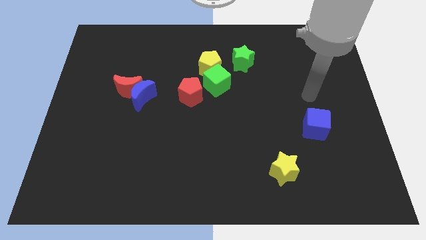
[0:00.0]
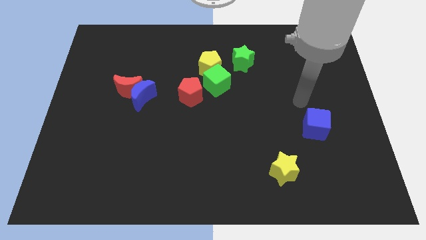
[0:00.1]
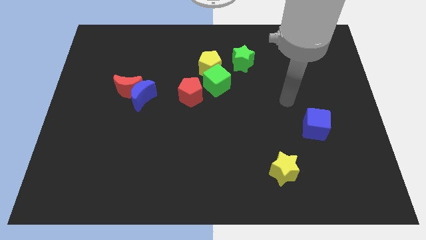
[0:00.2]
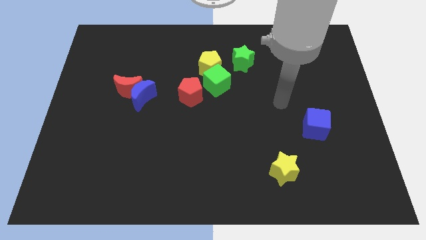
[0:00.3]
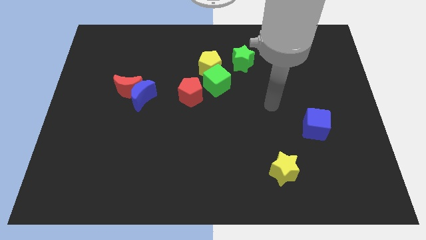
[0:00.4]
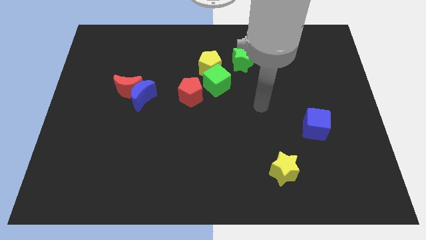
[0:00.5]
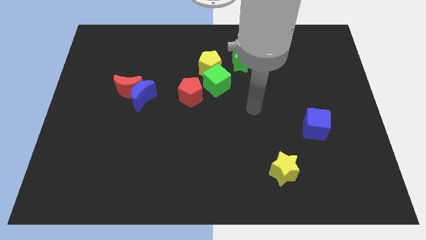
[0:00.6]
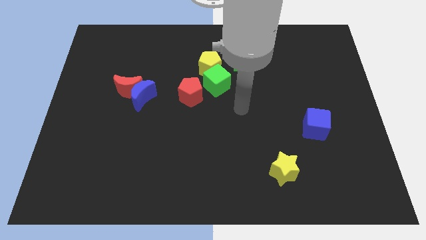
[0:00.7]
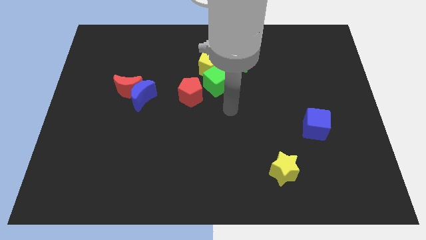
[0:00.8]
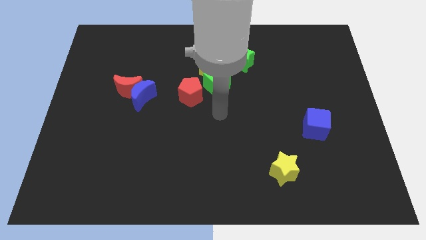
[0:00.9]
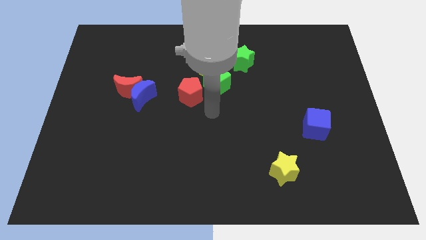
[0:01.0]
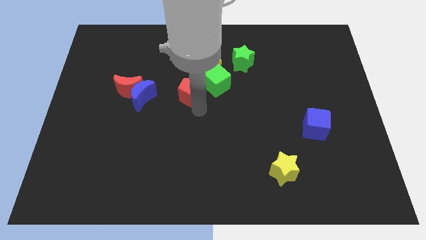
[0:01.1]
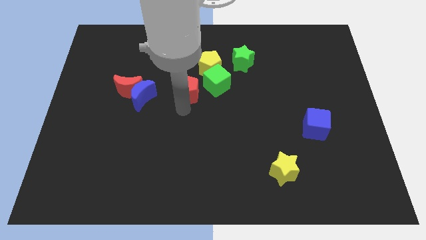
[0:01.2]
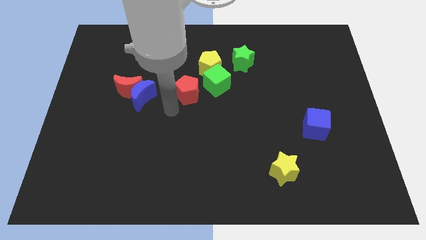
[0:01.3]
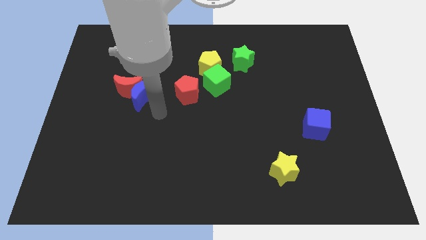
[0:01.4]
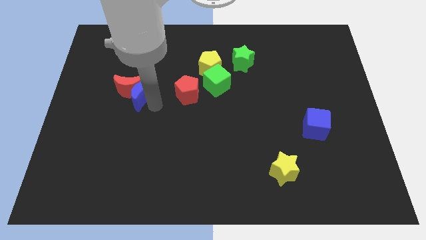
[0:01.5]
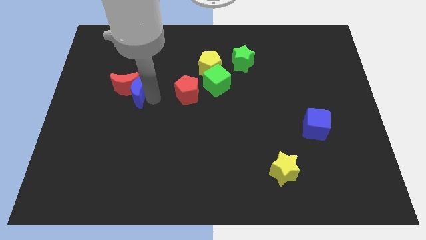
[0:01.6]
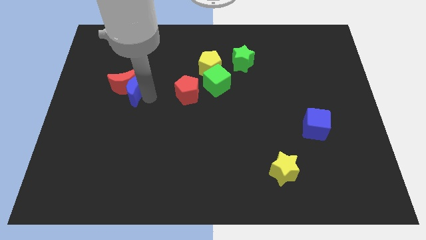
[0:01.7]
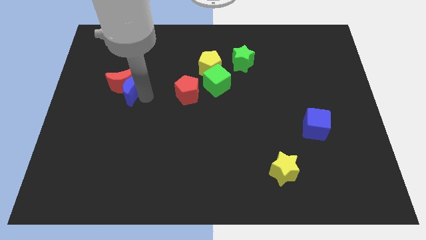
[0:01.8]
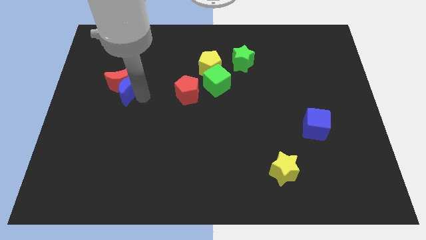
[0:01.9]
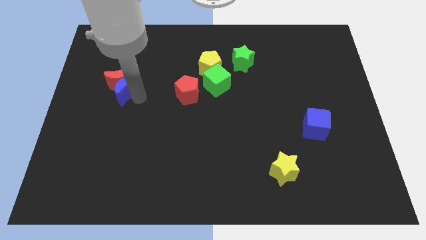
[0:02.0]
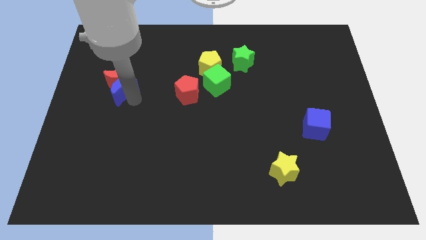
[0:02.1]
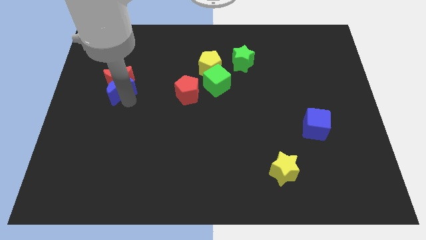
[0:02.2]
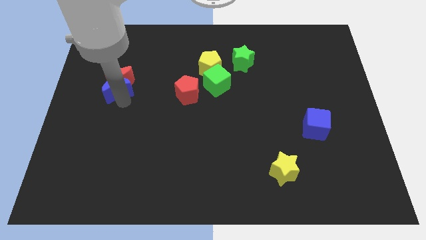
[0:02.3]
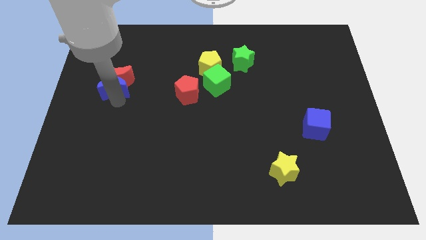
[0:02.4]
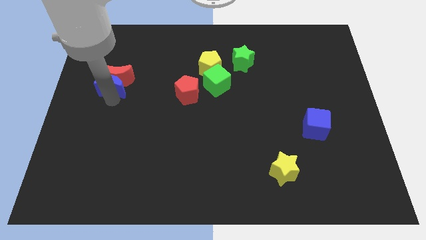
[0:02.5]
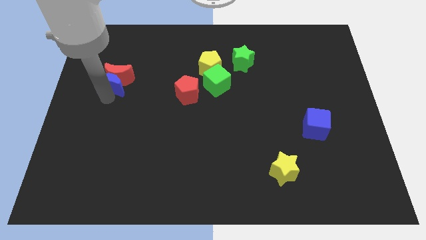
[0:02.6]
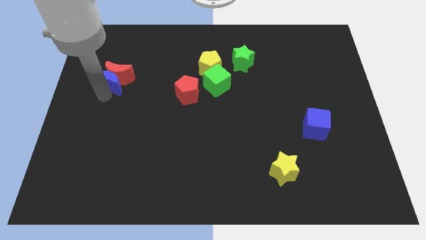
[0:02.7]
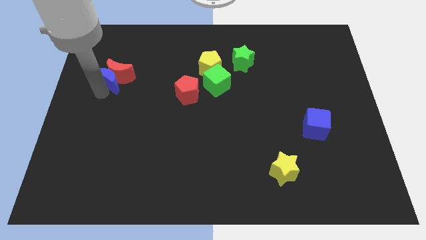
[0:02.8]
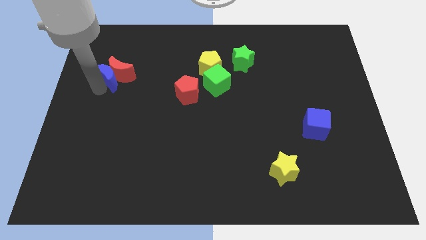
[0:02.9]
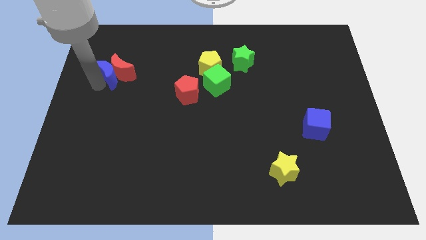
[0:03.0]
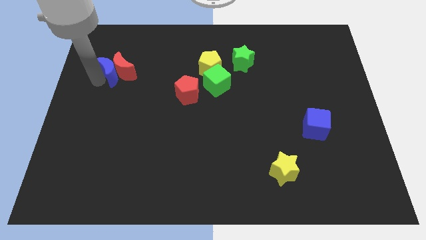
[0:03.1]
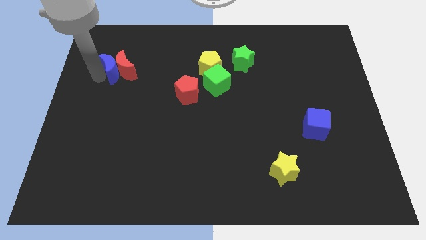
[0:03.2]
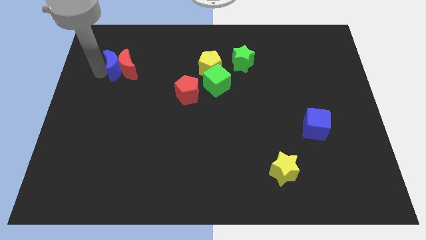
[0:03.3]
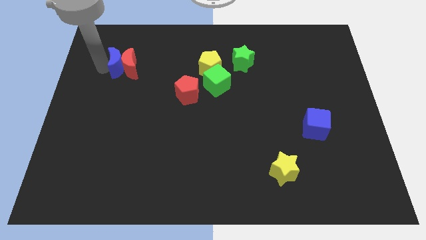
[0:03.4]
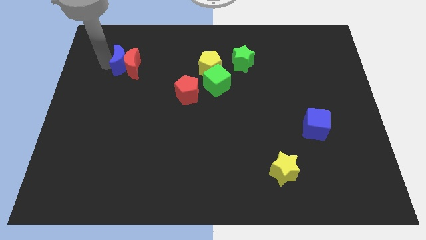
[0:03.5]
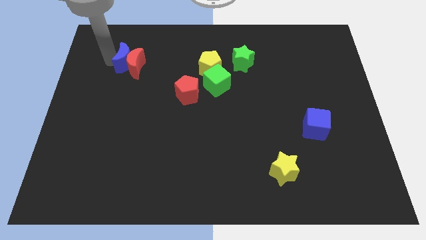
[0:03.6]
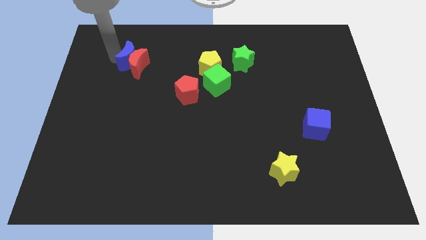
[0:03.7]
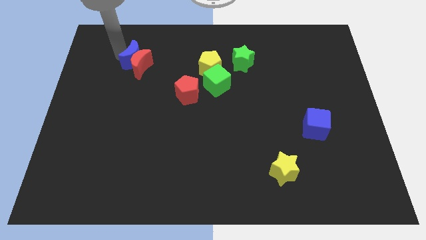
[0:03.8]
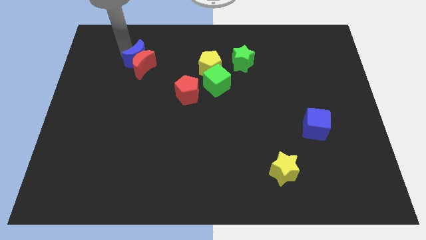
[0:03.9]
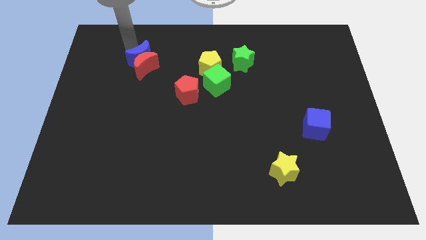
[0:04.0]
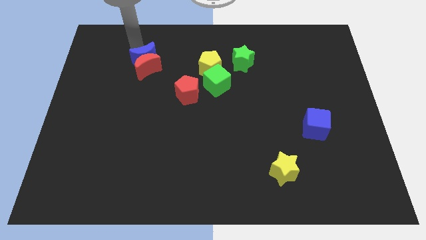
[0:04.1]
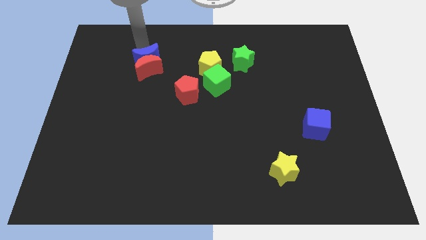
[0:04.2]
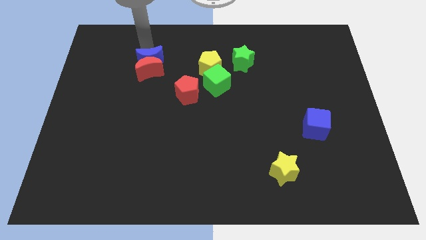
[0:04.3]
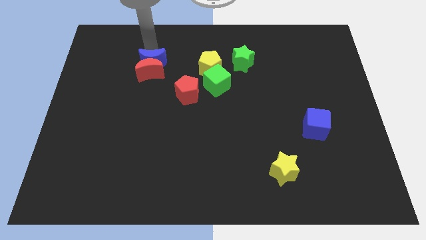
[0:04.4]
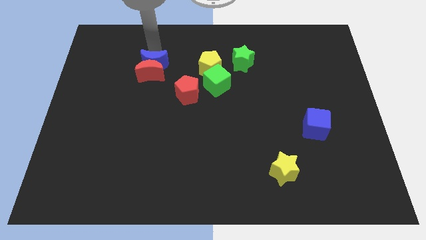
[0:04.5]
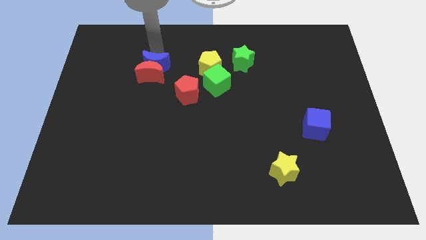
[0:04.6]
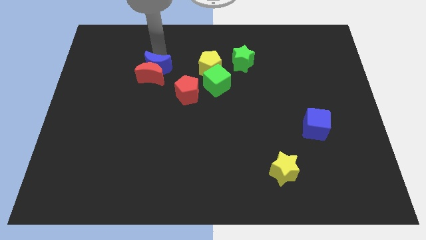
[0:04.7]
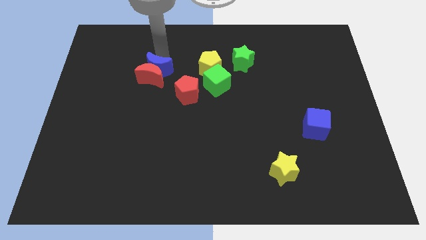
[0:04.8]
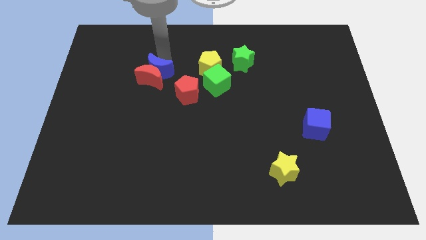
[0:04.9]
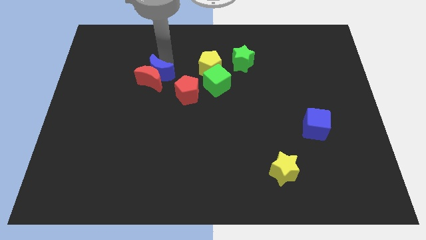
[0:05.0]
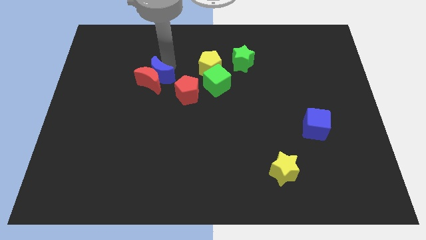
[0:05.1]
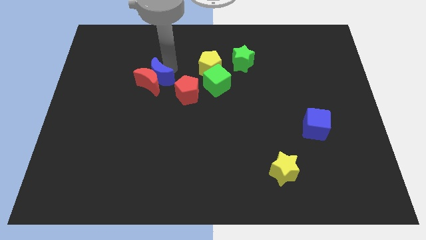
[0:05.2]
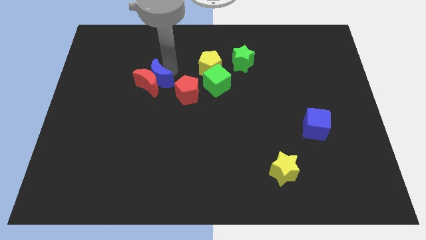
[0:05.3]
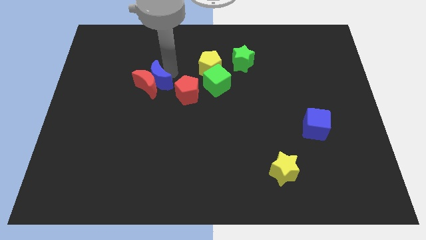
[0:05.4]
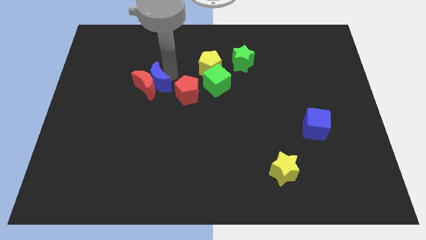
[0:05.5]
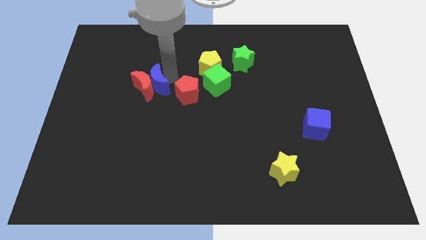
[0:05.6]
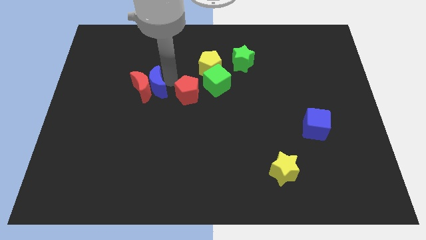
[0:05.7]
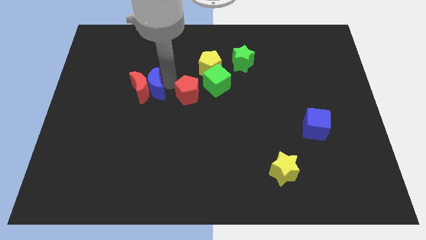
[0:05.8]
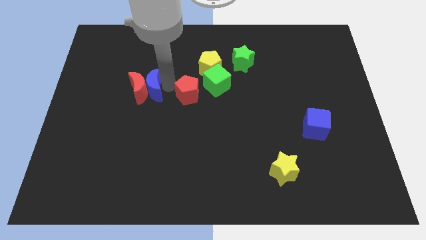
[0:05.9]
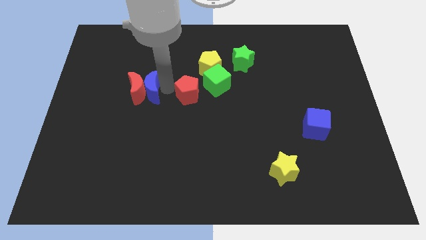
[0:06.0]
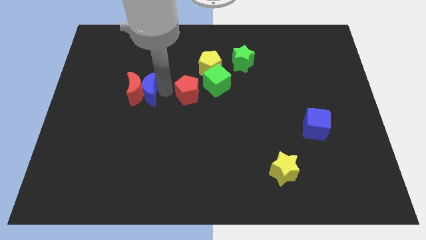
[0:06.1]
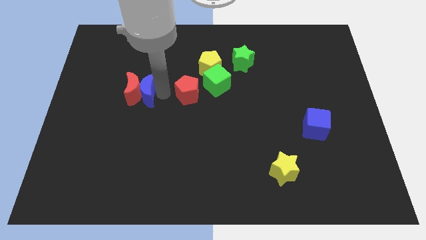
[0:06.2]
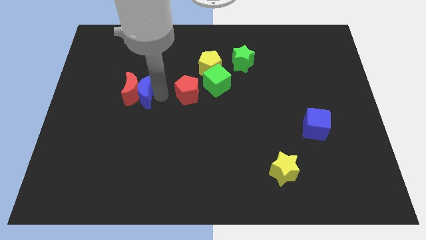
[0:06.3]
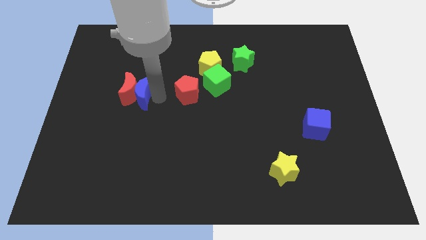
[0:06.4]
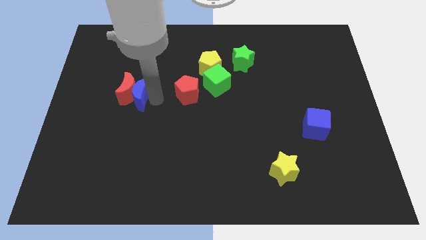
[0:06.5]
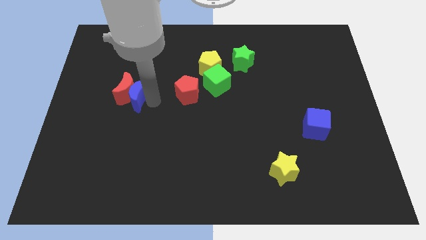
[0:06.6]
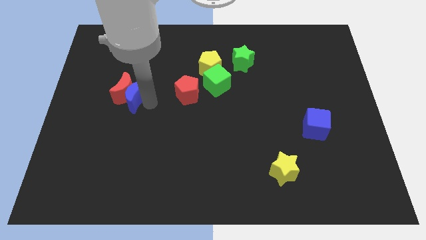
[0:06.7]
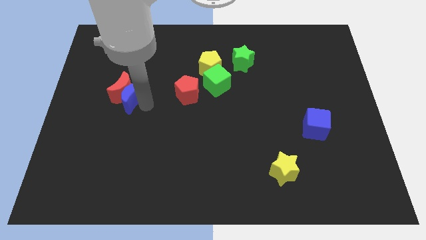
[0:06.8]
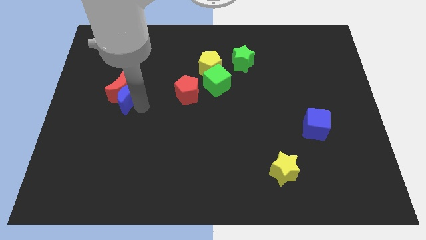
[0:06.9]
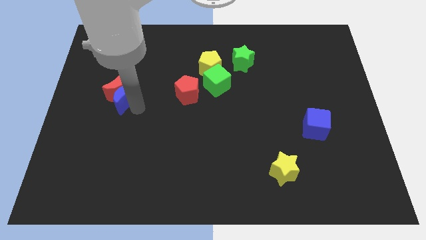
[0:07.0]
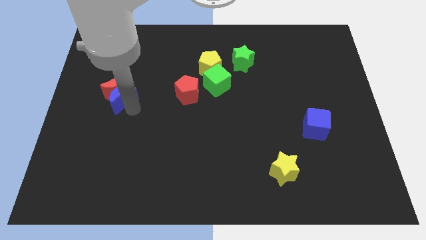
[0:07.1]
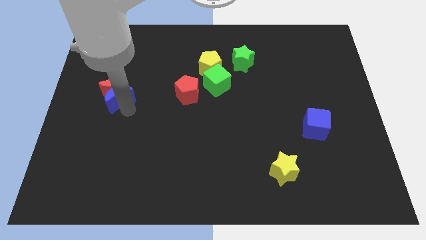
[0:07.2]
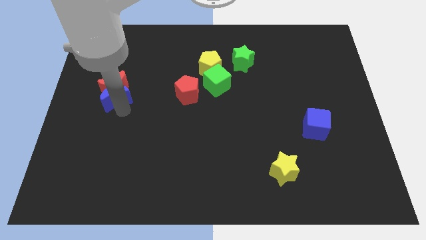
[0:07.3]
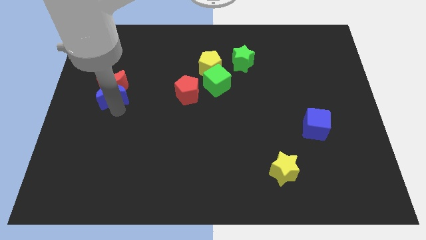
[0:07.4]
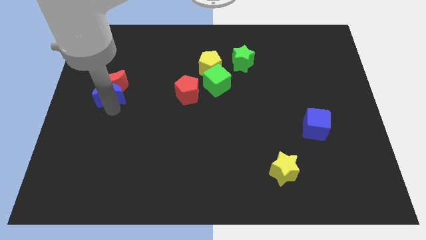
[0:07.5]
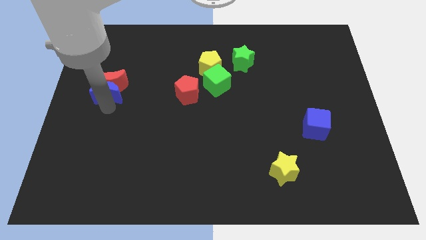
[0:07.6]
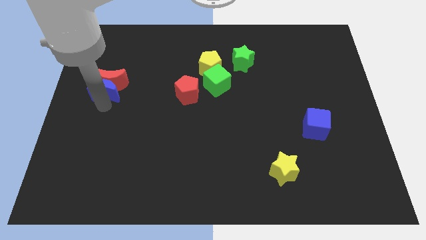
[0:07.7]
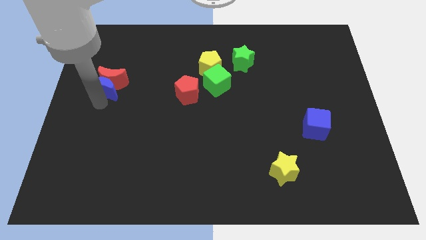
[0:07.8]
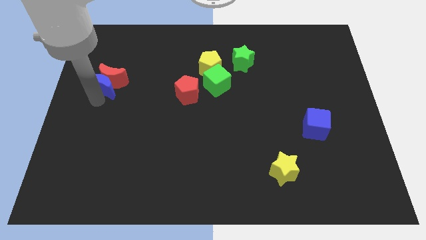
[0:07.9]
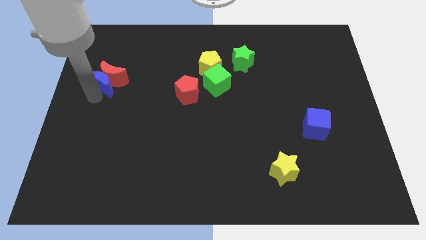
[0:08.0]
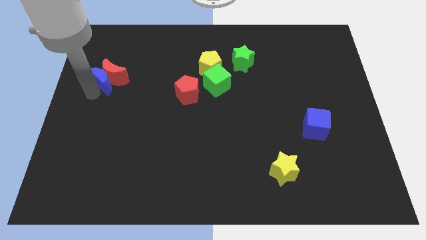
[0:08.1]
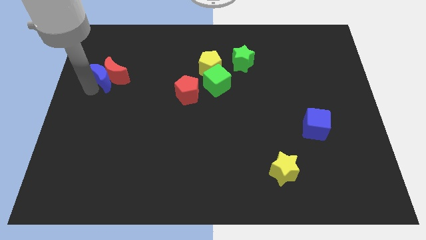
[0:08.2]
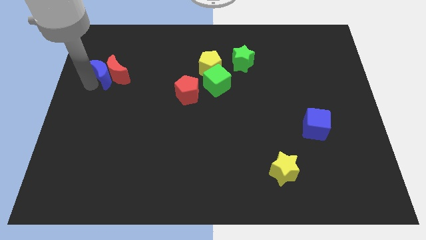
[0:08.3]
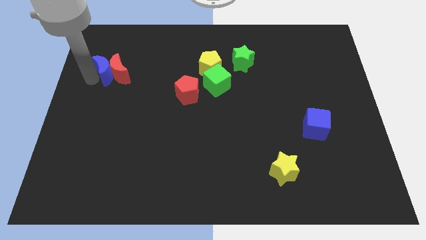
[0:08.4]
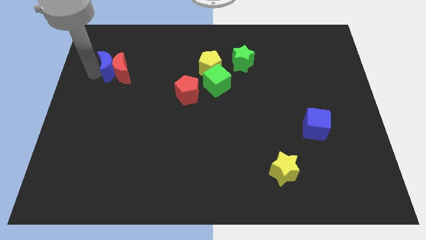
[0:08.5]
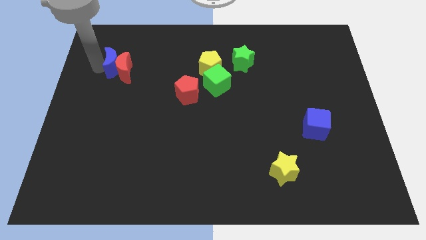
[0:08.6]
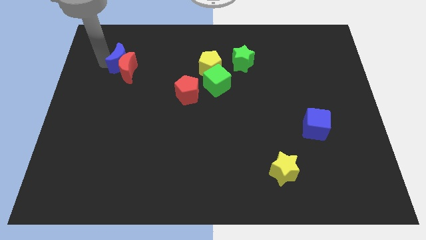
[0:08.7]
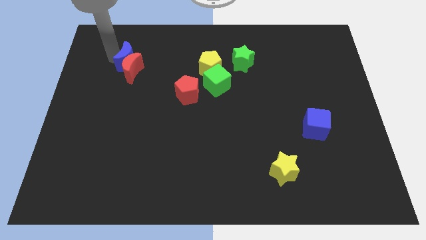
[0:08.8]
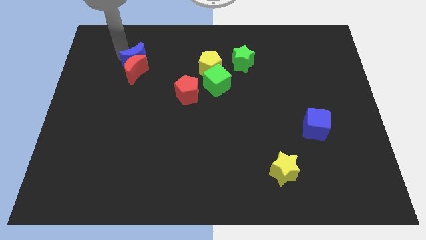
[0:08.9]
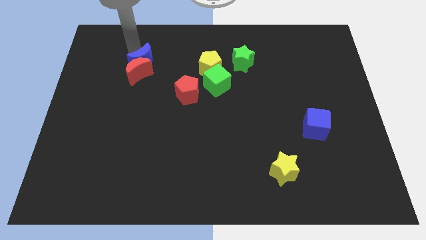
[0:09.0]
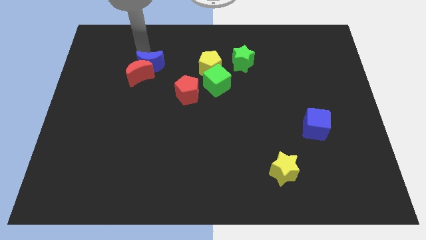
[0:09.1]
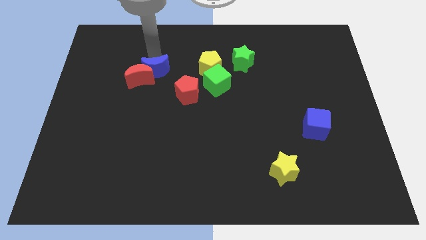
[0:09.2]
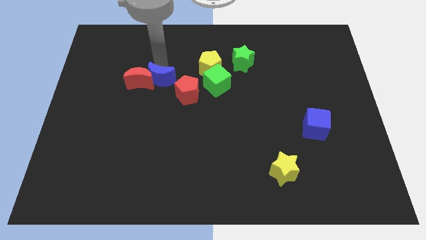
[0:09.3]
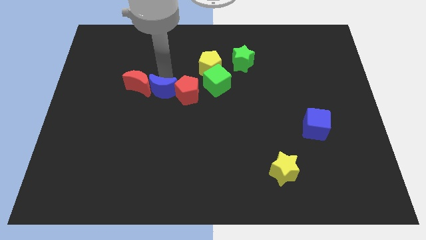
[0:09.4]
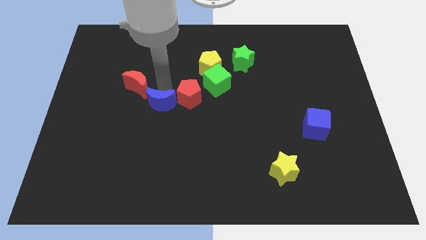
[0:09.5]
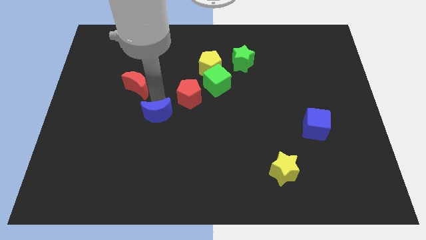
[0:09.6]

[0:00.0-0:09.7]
separate the red moon from the blue moon
